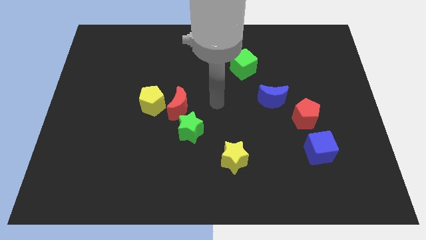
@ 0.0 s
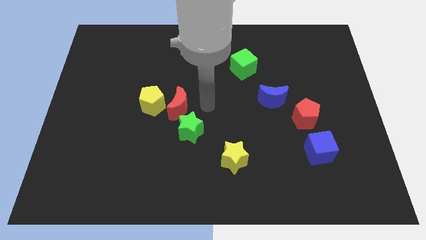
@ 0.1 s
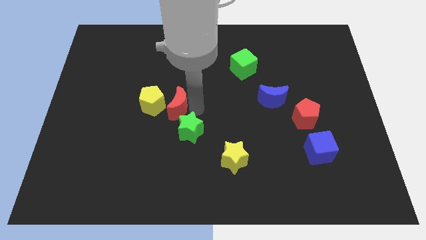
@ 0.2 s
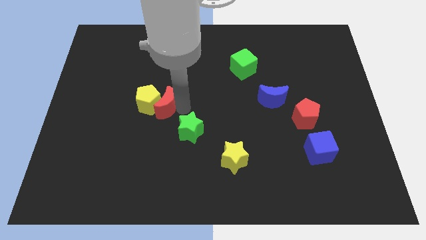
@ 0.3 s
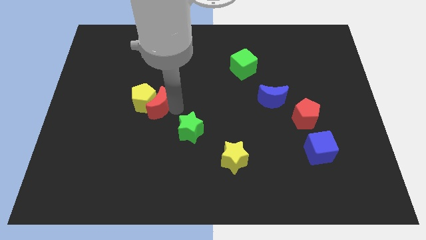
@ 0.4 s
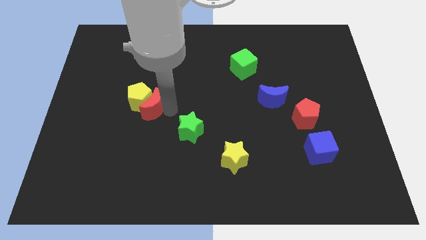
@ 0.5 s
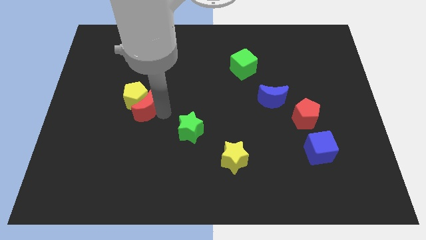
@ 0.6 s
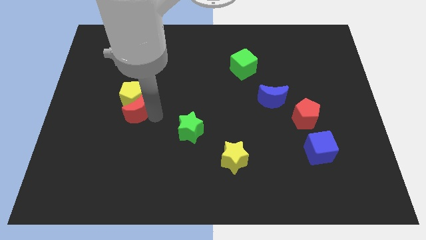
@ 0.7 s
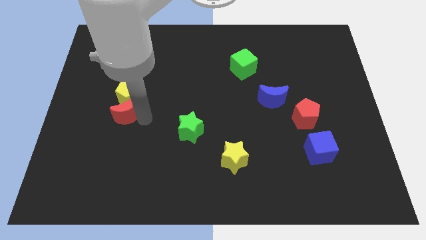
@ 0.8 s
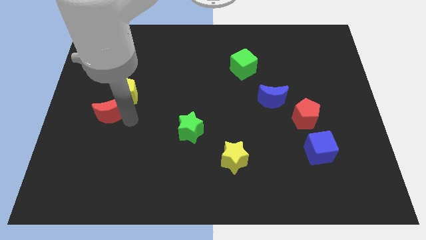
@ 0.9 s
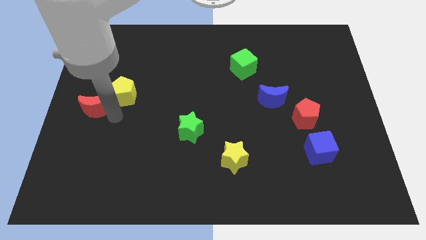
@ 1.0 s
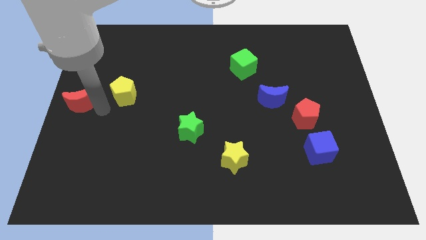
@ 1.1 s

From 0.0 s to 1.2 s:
pull the yellow pentagon apart from the red moon

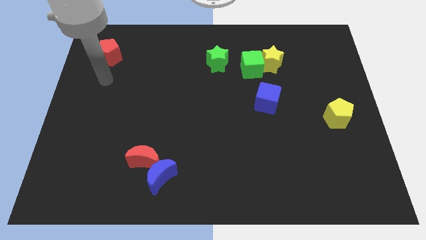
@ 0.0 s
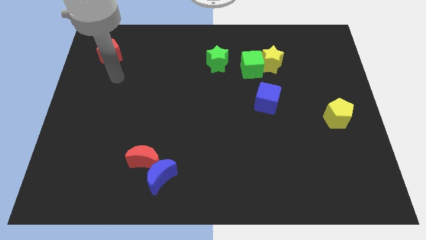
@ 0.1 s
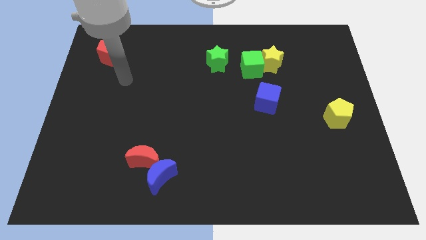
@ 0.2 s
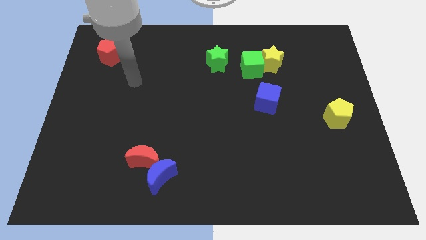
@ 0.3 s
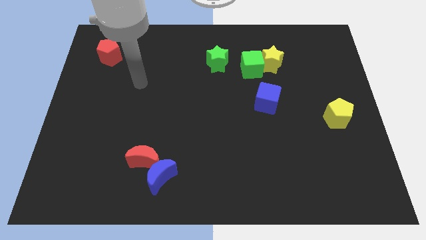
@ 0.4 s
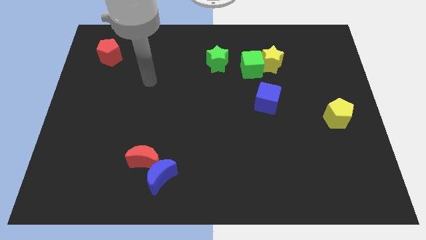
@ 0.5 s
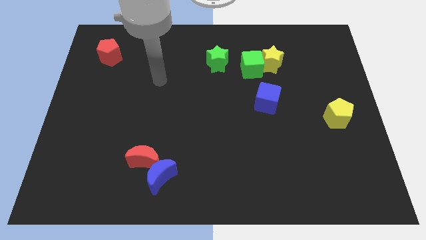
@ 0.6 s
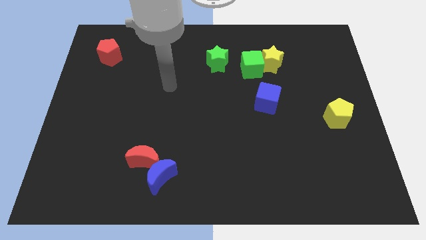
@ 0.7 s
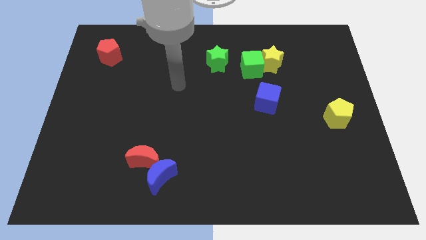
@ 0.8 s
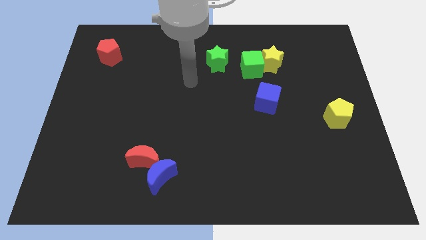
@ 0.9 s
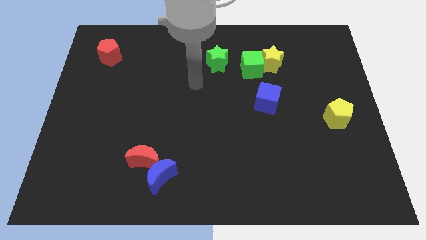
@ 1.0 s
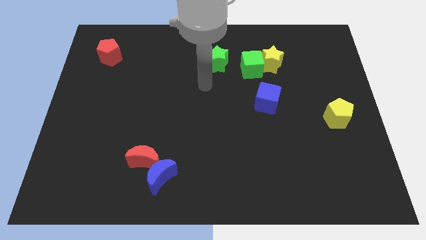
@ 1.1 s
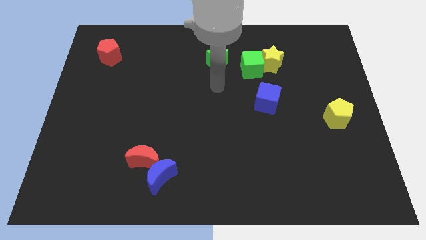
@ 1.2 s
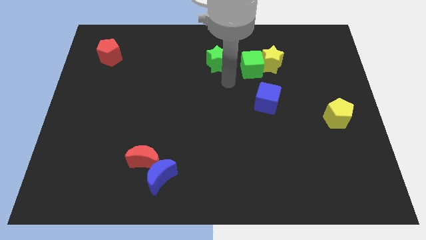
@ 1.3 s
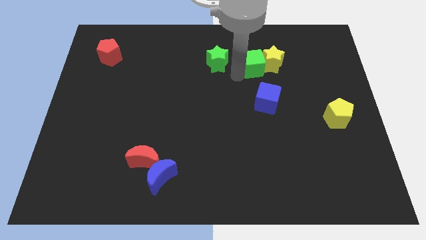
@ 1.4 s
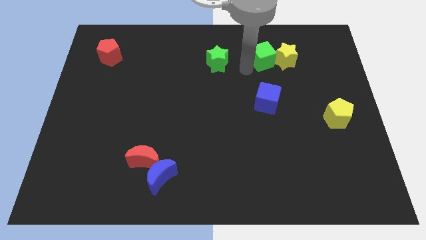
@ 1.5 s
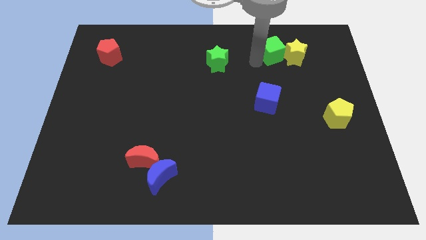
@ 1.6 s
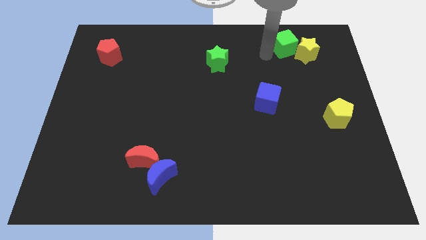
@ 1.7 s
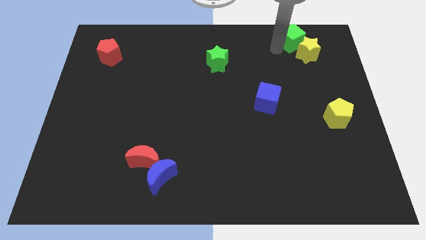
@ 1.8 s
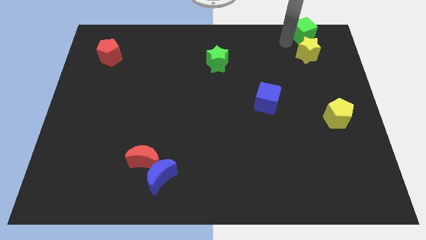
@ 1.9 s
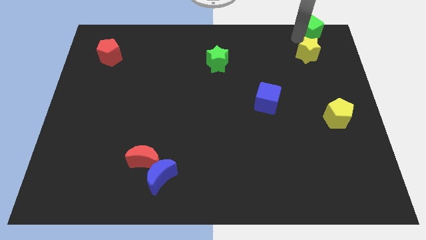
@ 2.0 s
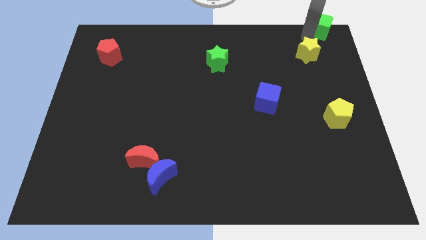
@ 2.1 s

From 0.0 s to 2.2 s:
move the yellow star away from the green cube

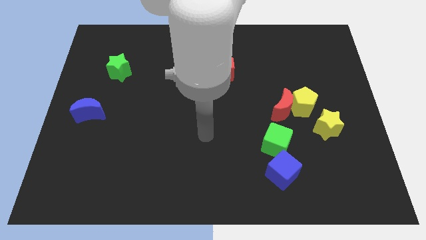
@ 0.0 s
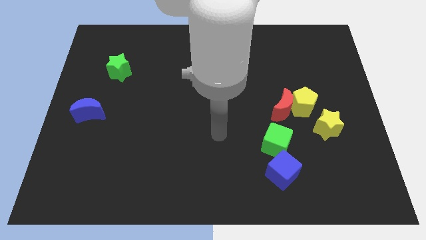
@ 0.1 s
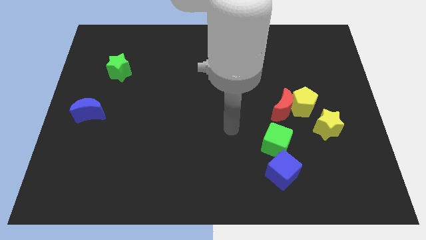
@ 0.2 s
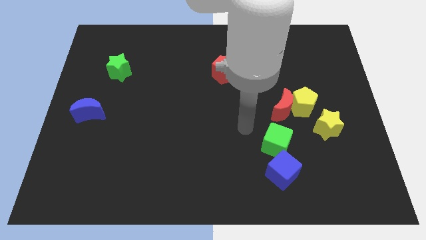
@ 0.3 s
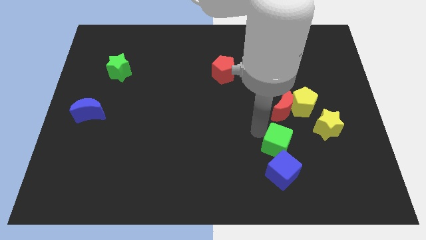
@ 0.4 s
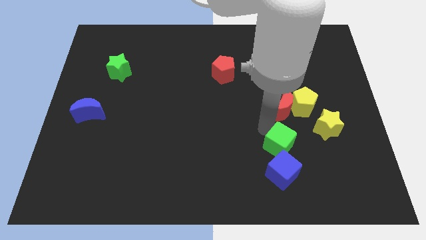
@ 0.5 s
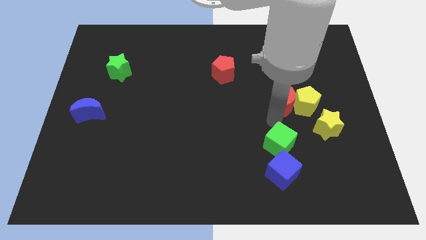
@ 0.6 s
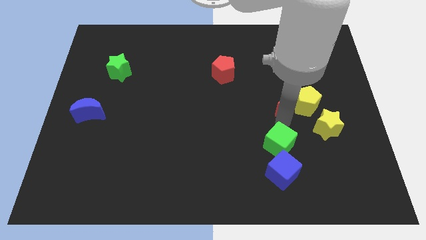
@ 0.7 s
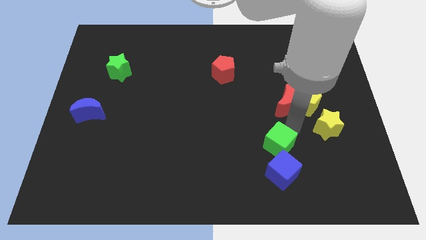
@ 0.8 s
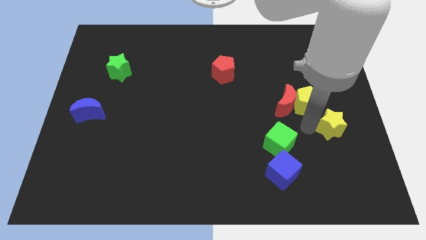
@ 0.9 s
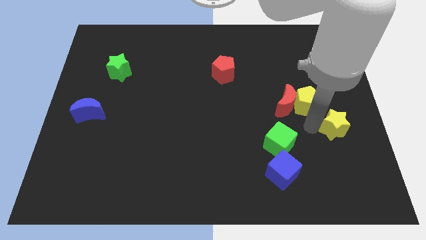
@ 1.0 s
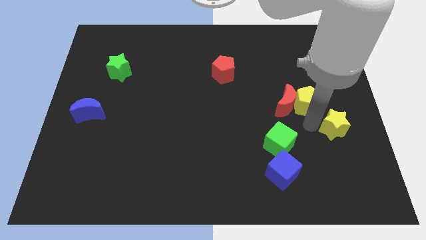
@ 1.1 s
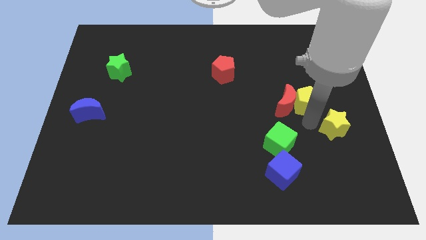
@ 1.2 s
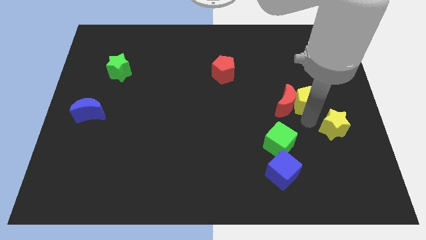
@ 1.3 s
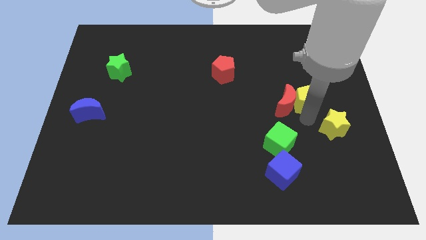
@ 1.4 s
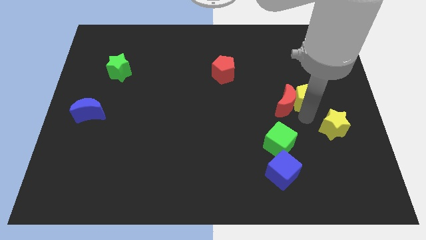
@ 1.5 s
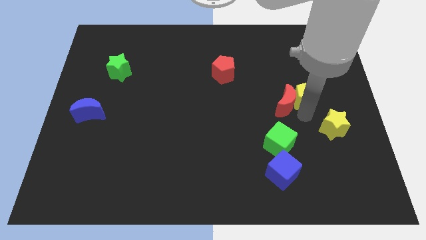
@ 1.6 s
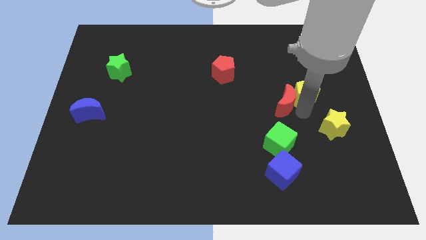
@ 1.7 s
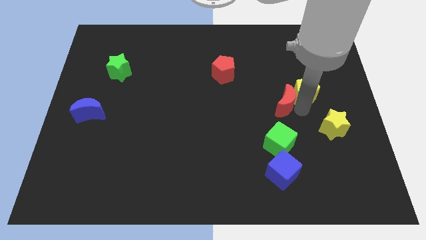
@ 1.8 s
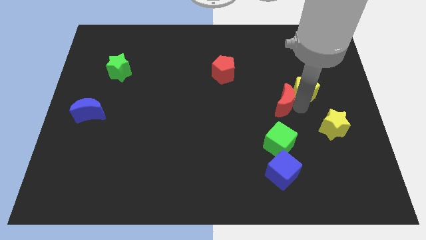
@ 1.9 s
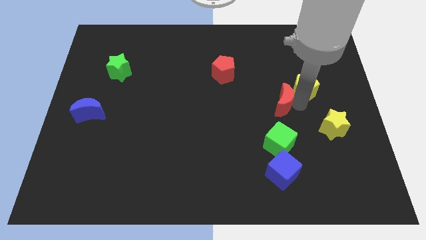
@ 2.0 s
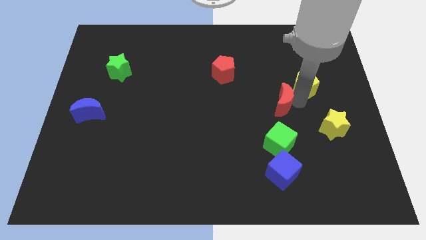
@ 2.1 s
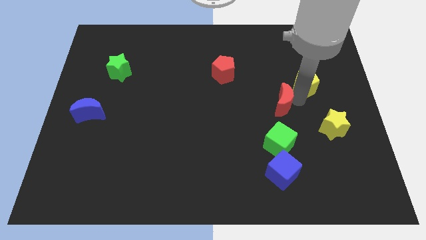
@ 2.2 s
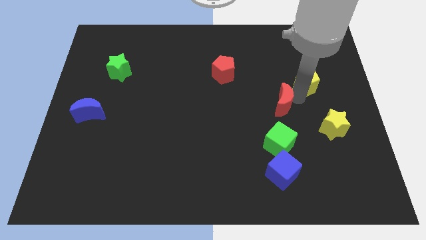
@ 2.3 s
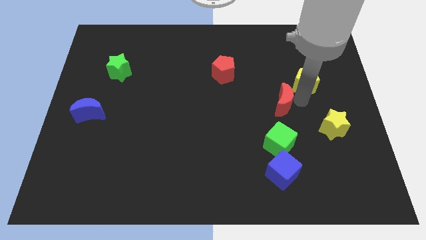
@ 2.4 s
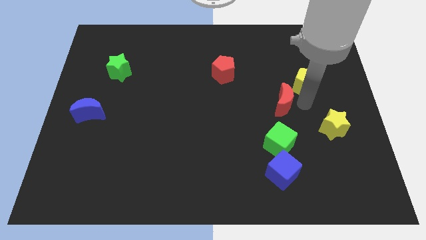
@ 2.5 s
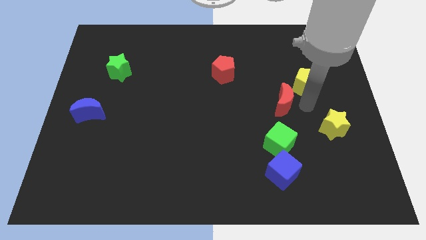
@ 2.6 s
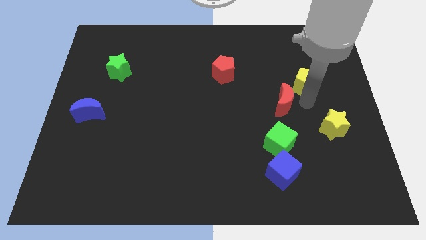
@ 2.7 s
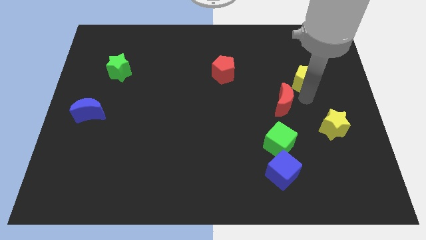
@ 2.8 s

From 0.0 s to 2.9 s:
separate the yellow pentagon from the red moon and yellow star

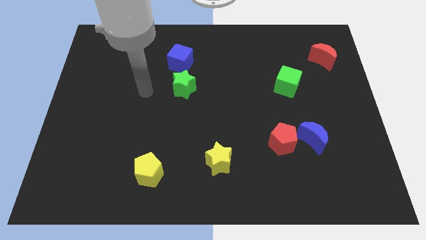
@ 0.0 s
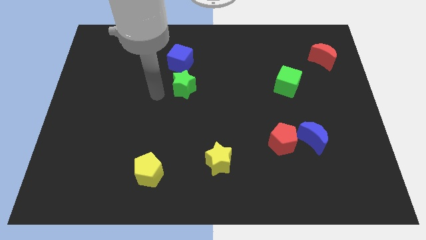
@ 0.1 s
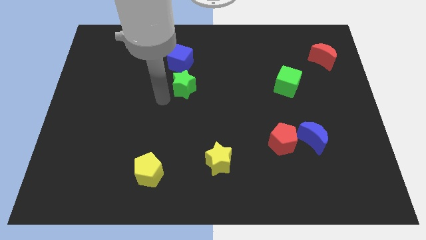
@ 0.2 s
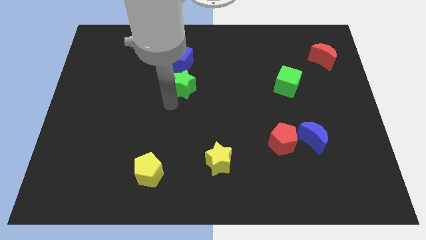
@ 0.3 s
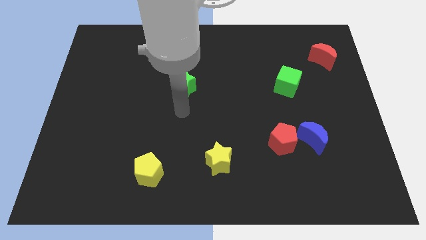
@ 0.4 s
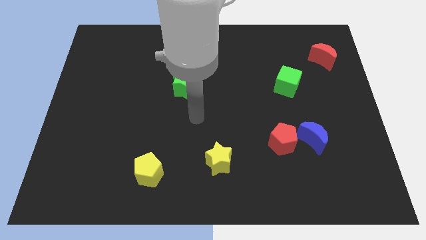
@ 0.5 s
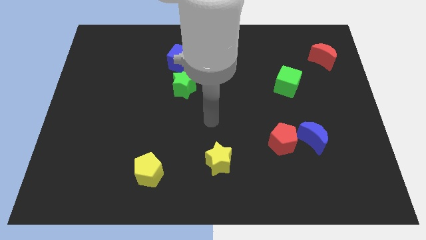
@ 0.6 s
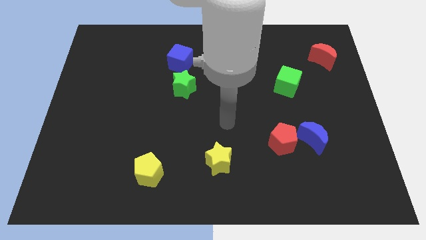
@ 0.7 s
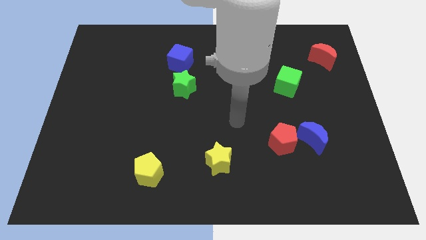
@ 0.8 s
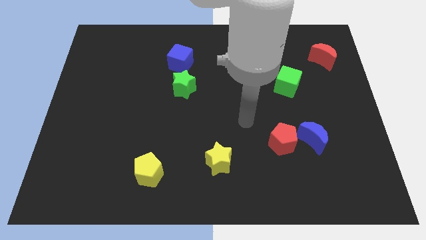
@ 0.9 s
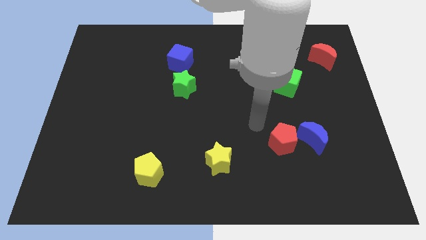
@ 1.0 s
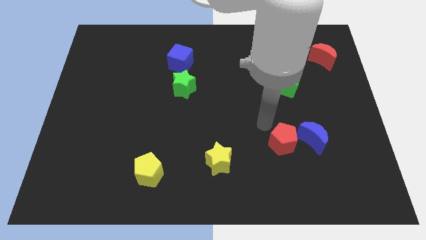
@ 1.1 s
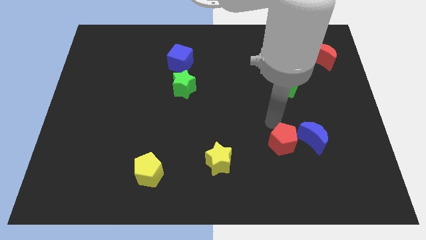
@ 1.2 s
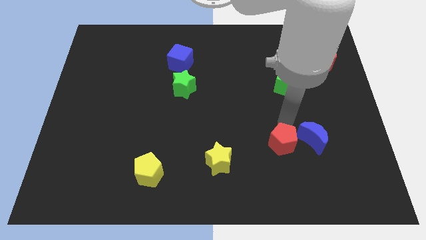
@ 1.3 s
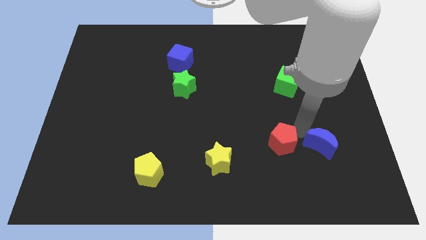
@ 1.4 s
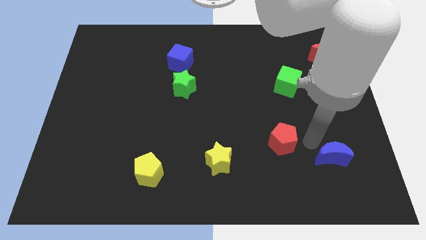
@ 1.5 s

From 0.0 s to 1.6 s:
separate the red pentagon from the blue moon

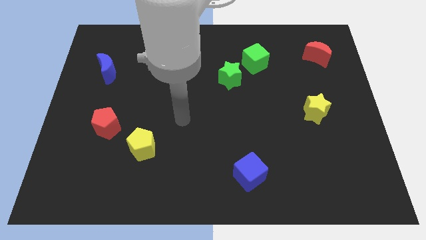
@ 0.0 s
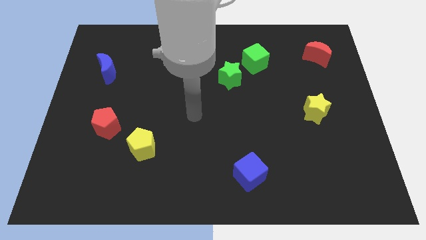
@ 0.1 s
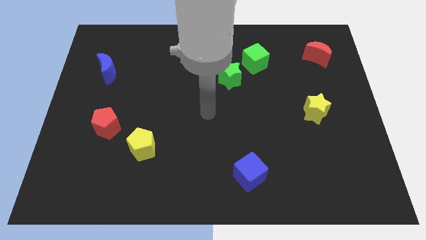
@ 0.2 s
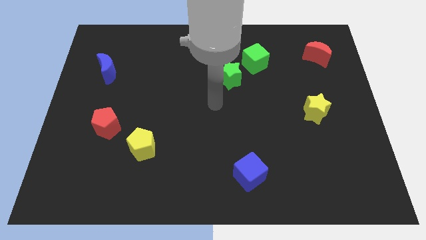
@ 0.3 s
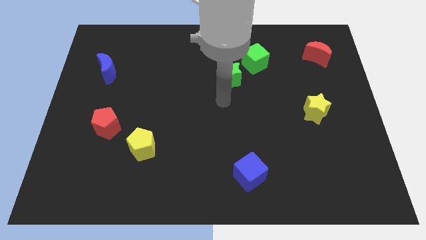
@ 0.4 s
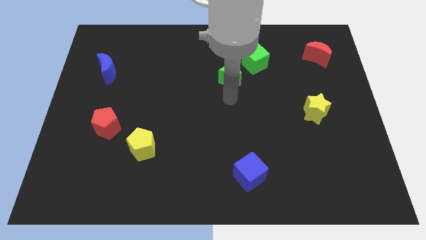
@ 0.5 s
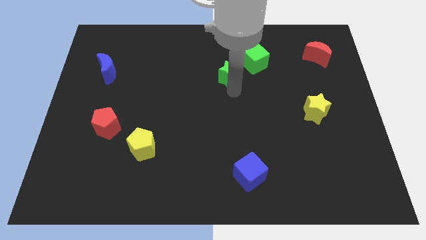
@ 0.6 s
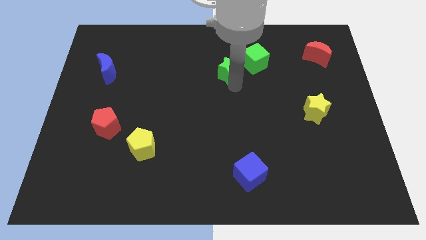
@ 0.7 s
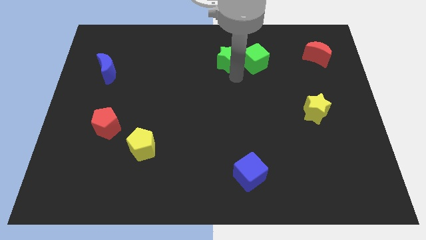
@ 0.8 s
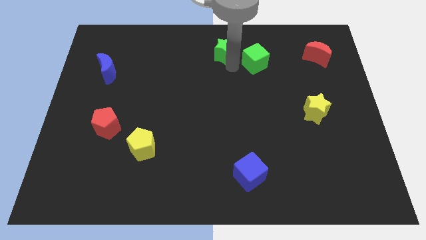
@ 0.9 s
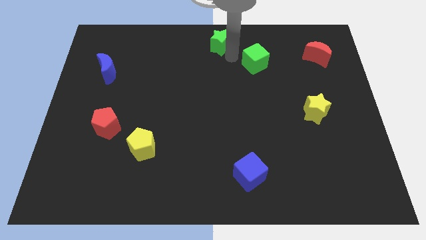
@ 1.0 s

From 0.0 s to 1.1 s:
move the green cube away from the green star

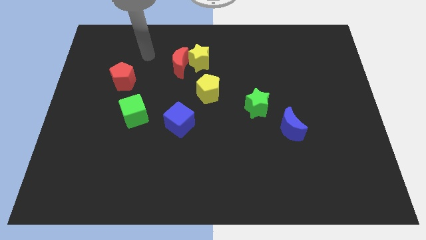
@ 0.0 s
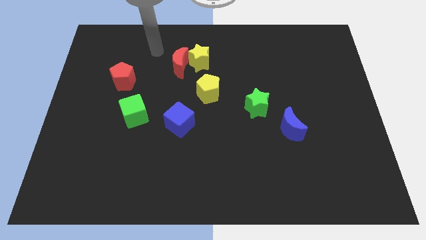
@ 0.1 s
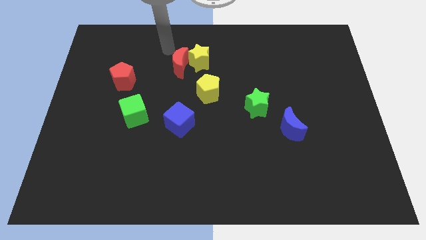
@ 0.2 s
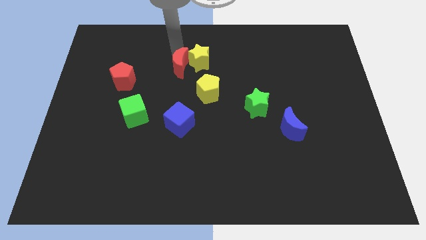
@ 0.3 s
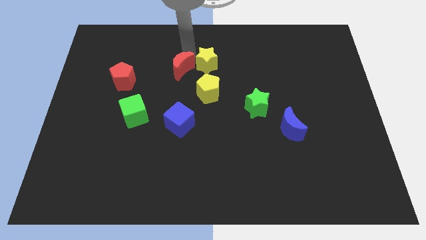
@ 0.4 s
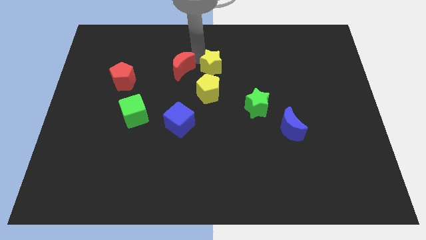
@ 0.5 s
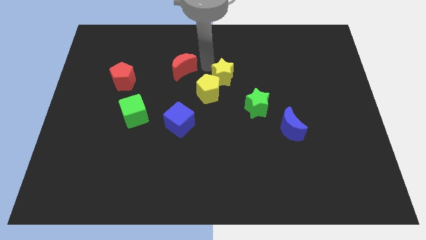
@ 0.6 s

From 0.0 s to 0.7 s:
pull the red moon apart from the yellow star
